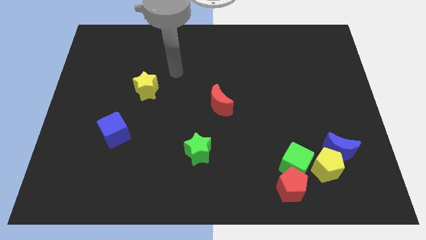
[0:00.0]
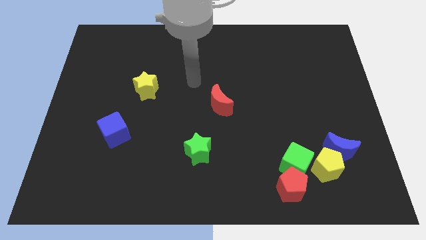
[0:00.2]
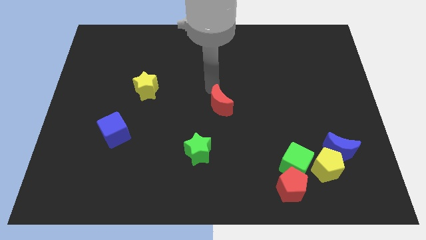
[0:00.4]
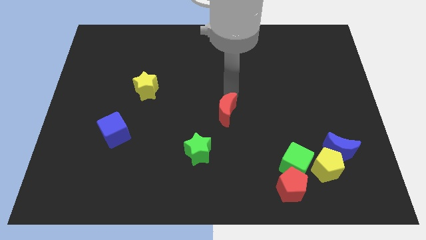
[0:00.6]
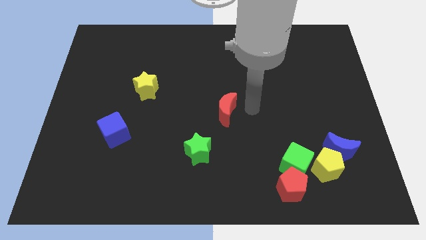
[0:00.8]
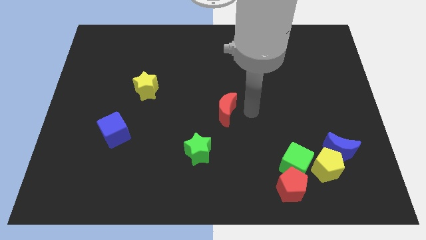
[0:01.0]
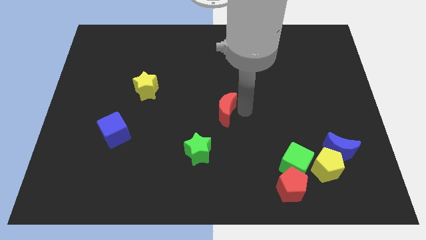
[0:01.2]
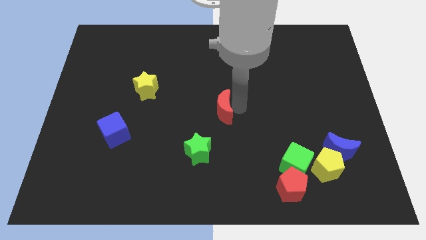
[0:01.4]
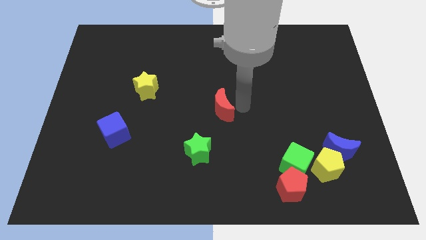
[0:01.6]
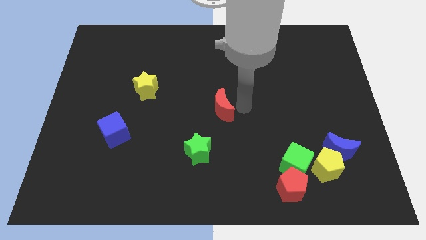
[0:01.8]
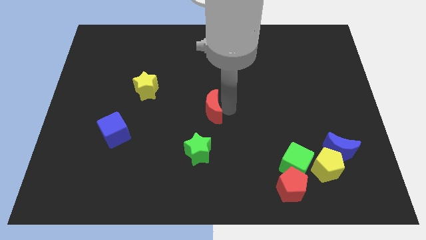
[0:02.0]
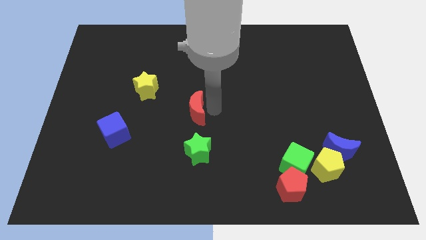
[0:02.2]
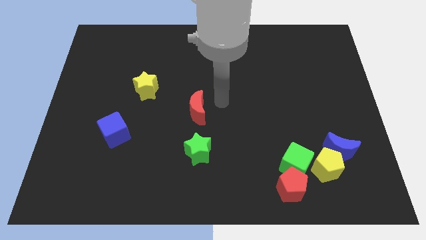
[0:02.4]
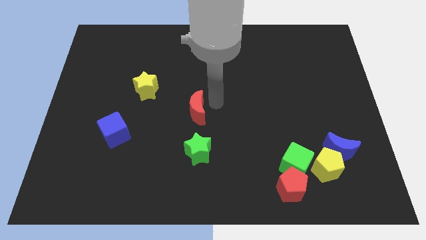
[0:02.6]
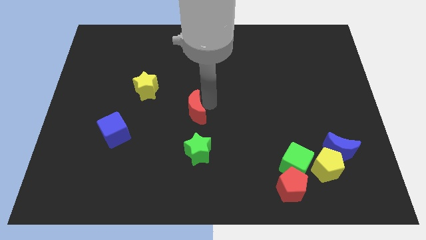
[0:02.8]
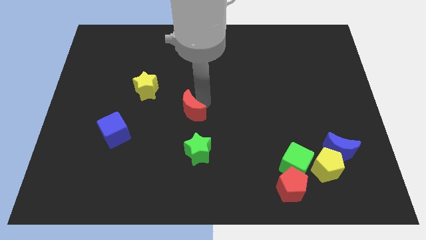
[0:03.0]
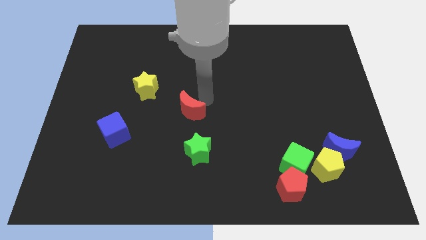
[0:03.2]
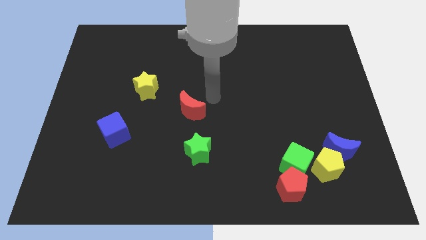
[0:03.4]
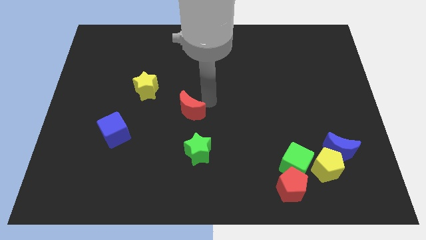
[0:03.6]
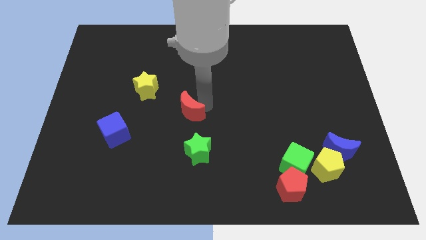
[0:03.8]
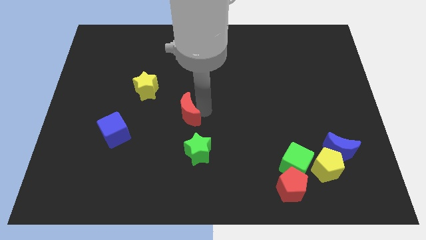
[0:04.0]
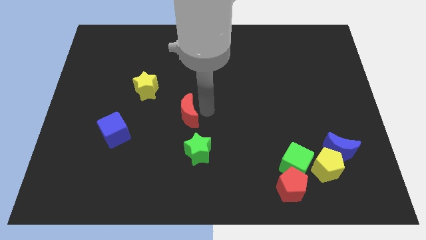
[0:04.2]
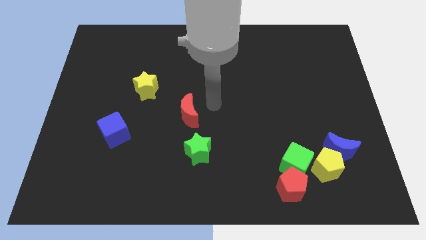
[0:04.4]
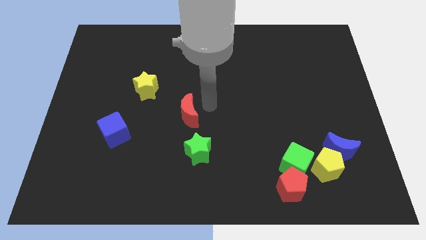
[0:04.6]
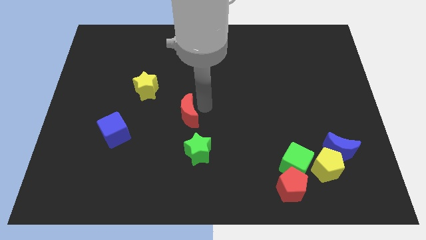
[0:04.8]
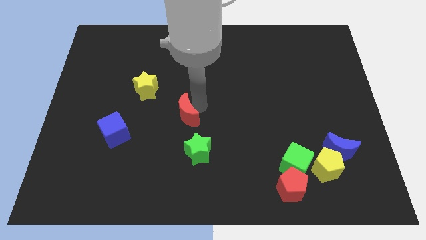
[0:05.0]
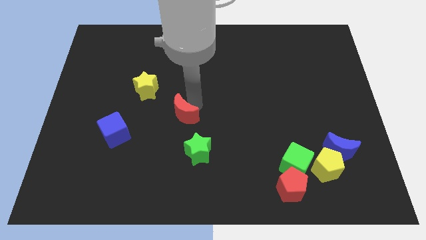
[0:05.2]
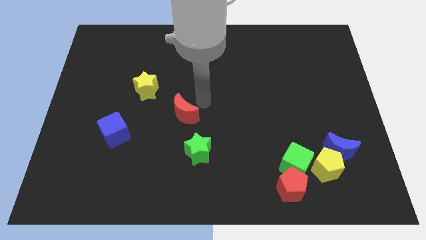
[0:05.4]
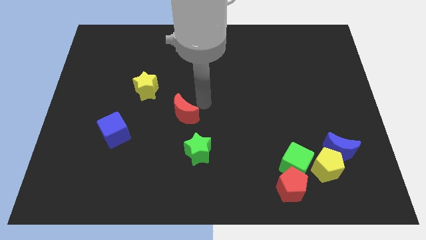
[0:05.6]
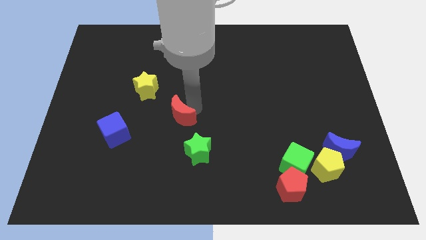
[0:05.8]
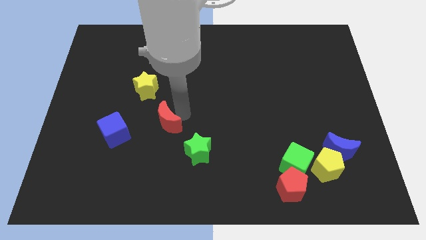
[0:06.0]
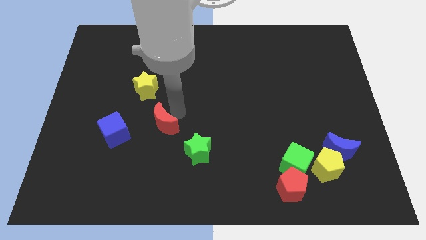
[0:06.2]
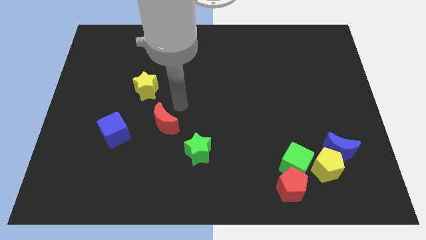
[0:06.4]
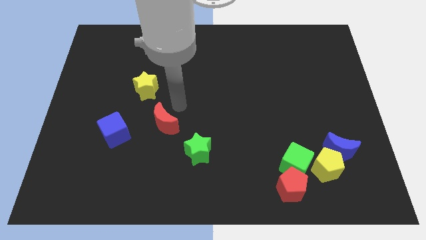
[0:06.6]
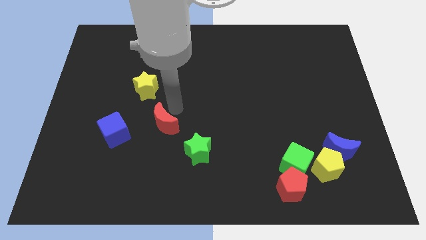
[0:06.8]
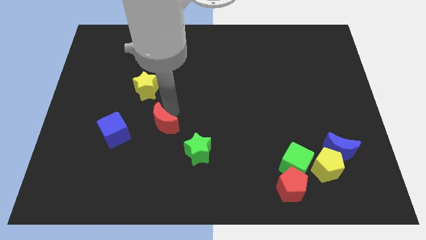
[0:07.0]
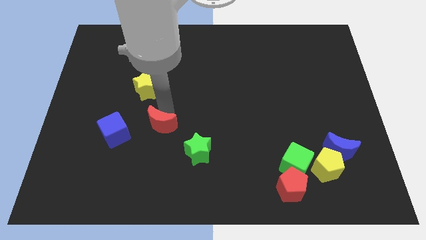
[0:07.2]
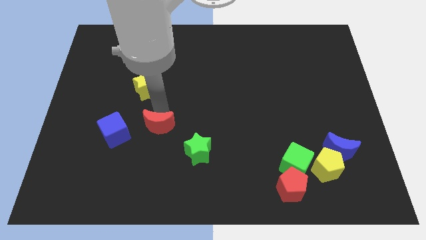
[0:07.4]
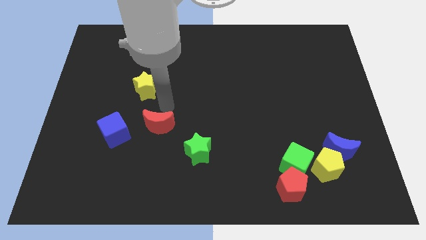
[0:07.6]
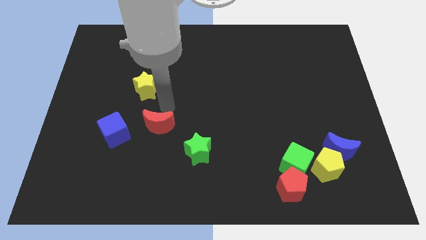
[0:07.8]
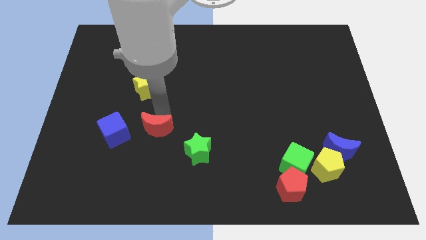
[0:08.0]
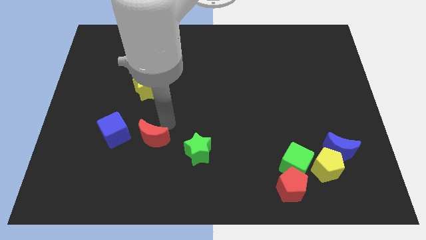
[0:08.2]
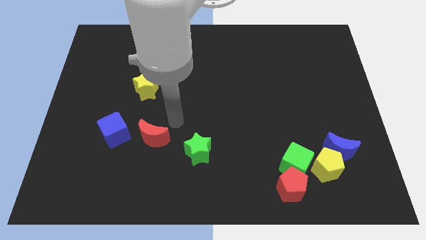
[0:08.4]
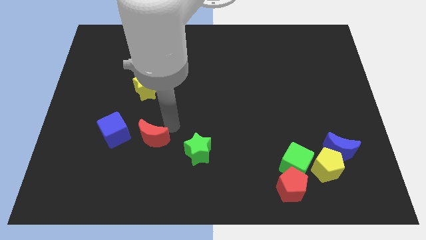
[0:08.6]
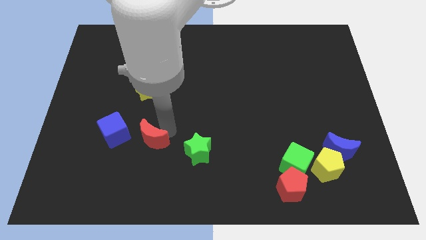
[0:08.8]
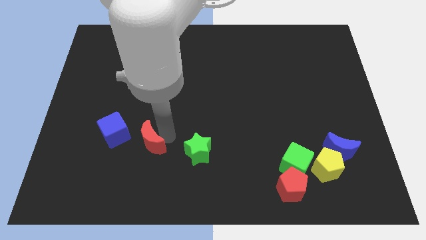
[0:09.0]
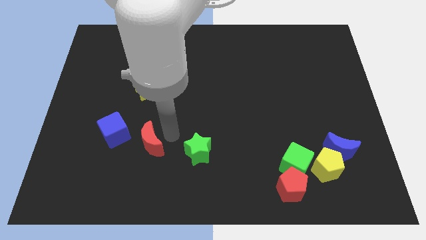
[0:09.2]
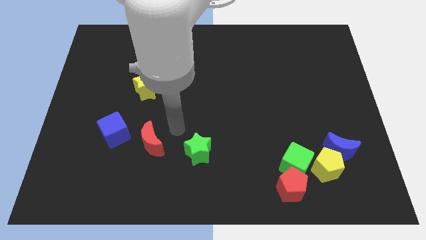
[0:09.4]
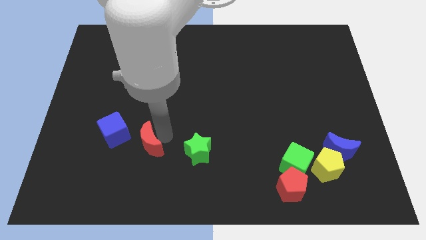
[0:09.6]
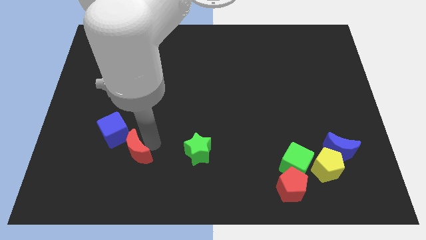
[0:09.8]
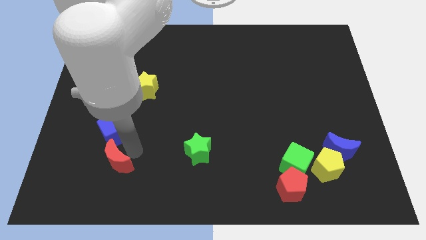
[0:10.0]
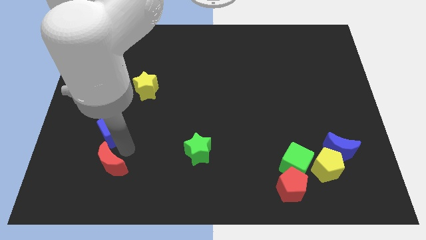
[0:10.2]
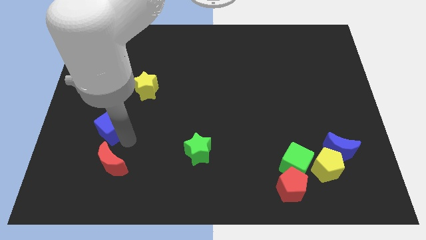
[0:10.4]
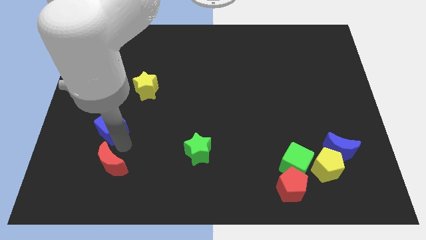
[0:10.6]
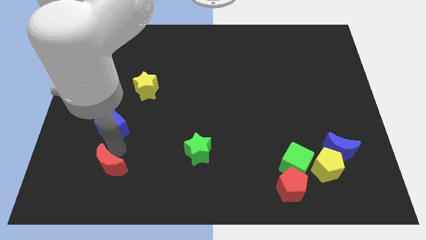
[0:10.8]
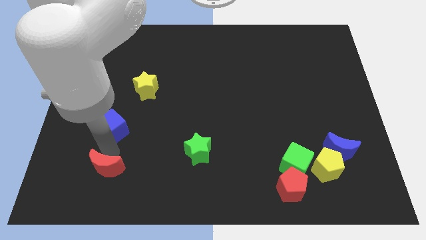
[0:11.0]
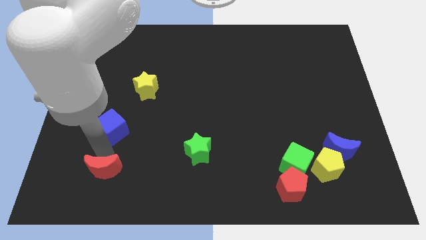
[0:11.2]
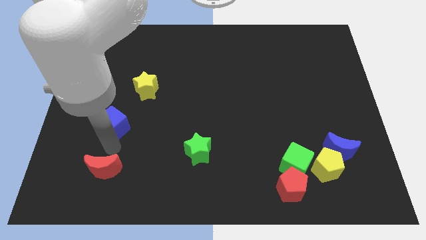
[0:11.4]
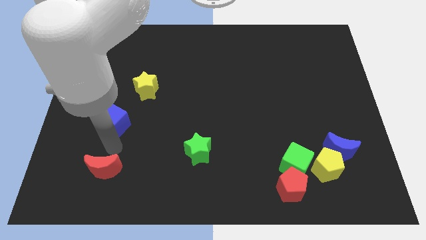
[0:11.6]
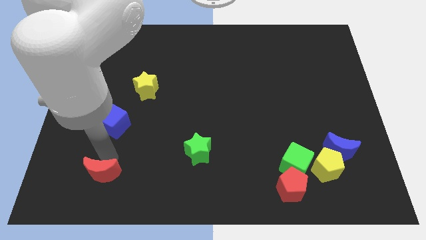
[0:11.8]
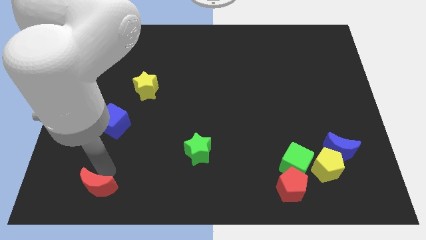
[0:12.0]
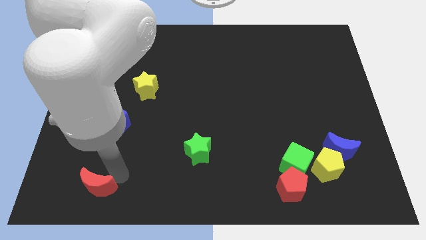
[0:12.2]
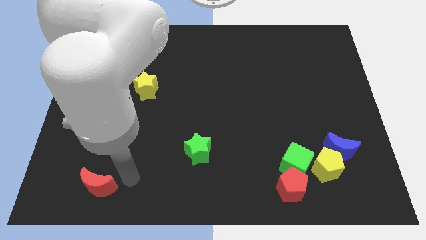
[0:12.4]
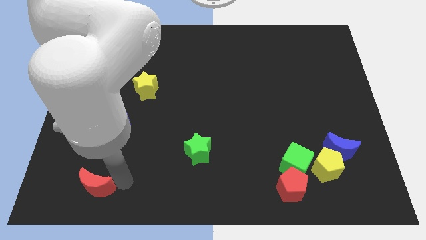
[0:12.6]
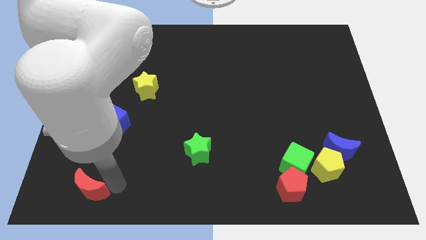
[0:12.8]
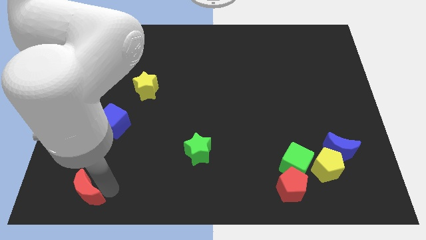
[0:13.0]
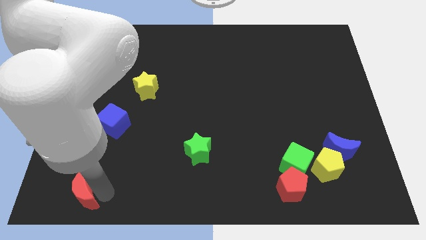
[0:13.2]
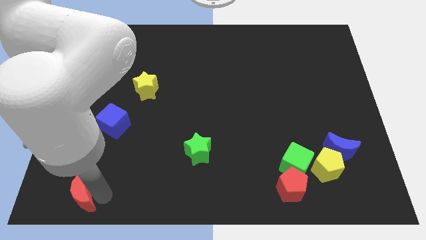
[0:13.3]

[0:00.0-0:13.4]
push the red moon to the bottom left
